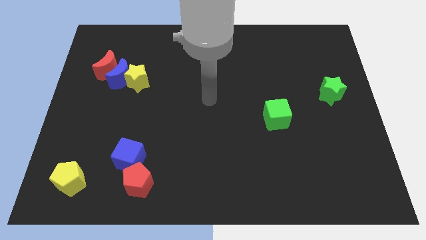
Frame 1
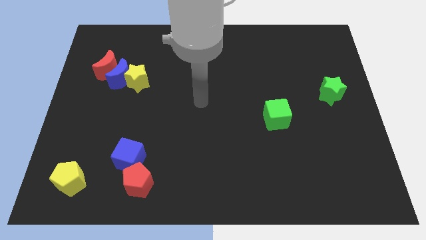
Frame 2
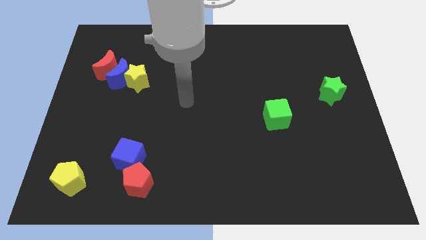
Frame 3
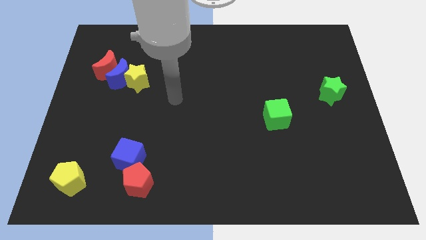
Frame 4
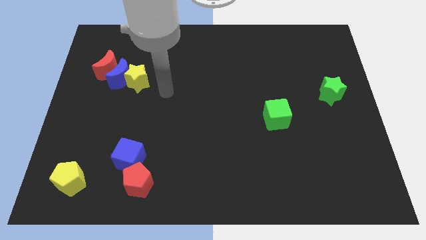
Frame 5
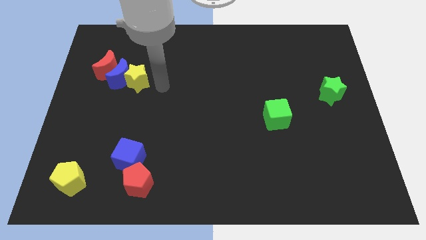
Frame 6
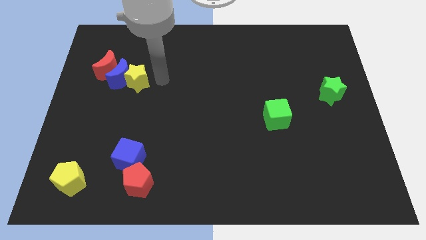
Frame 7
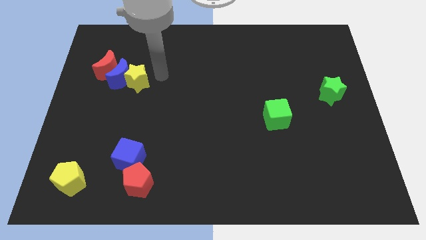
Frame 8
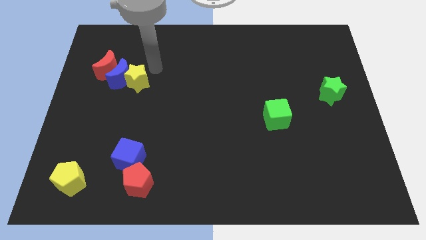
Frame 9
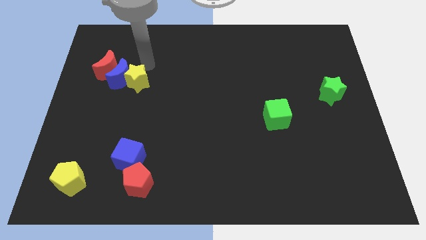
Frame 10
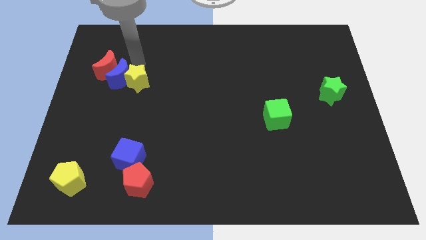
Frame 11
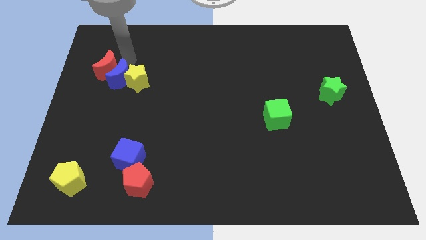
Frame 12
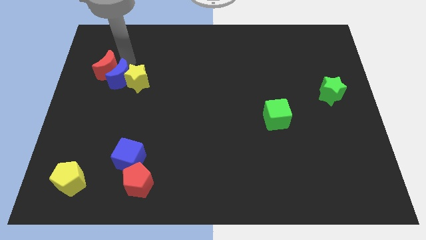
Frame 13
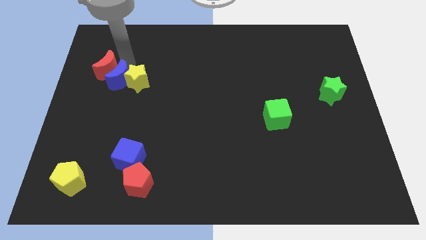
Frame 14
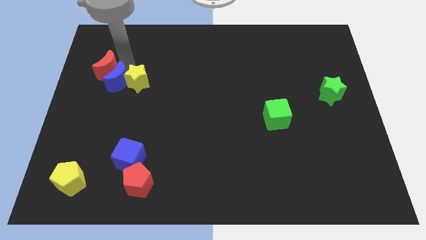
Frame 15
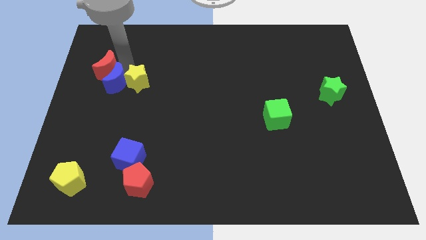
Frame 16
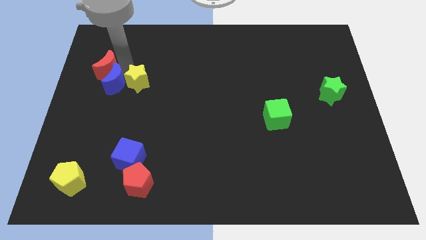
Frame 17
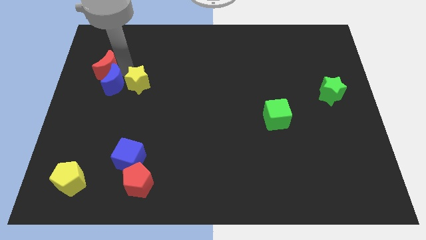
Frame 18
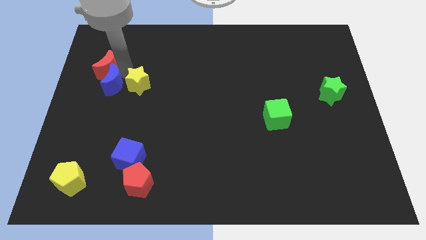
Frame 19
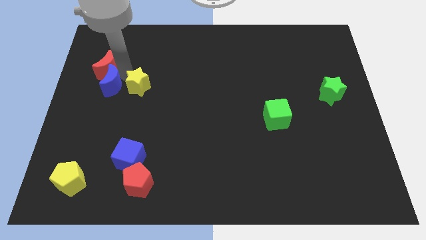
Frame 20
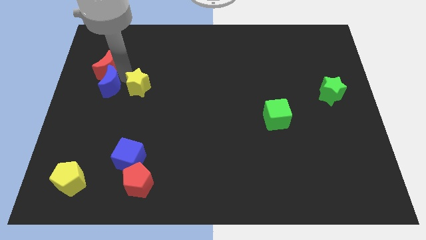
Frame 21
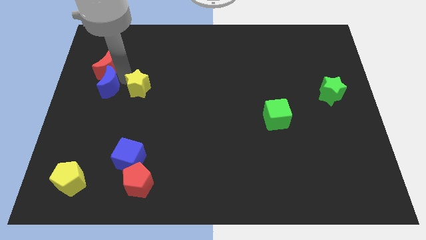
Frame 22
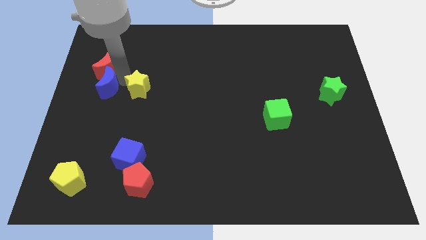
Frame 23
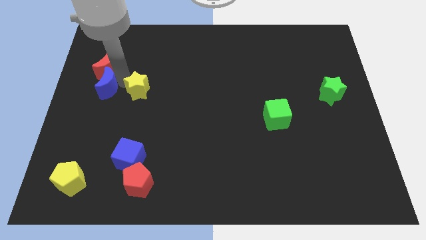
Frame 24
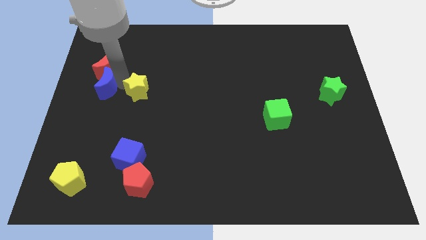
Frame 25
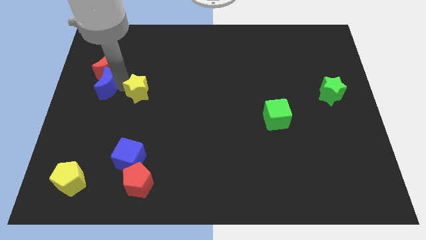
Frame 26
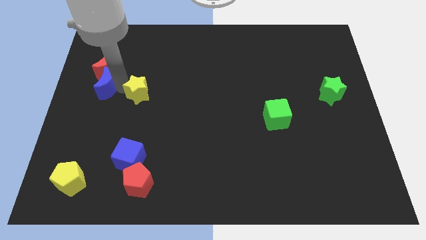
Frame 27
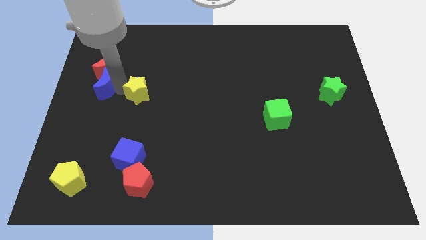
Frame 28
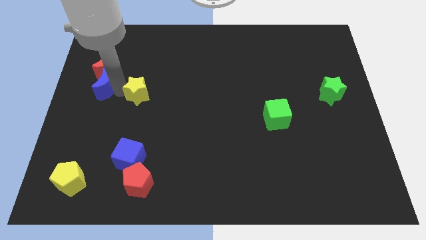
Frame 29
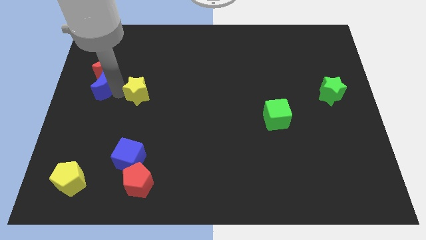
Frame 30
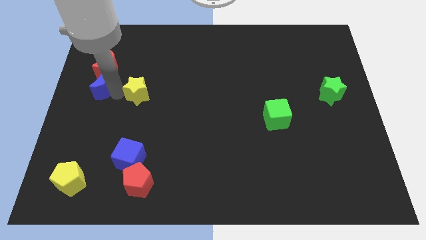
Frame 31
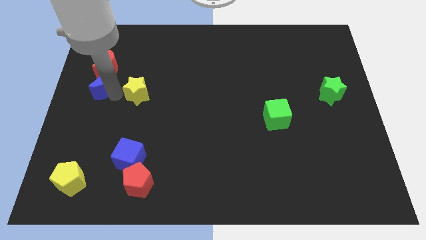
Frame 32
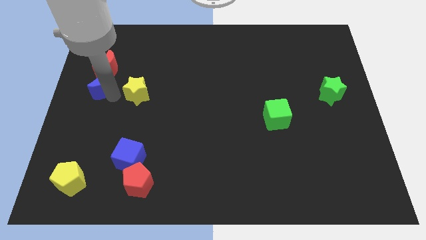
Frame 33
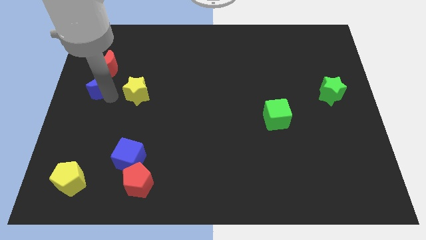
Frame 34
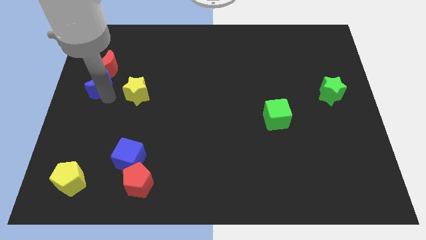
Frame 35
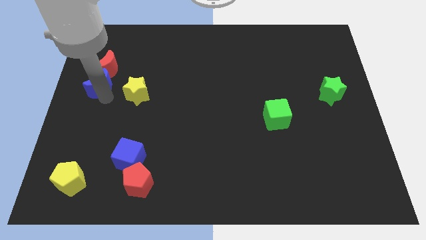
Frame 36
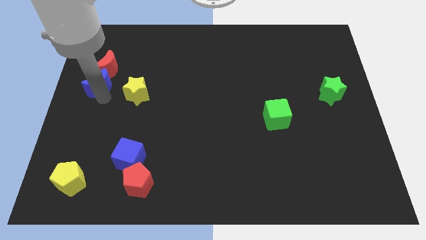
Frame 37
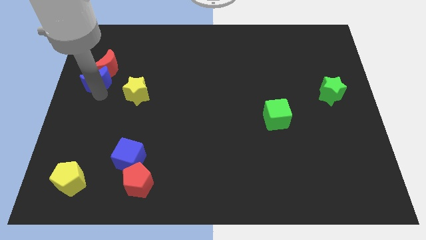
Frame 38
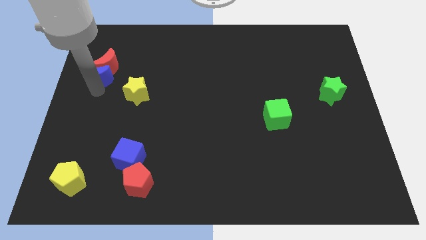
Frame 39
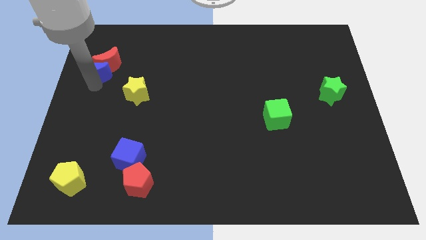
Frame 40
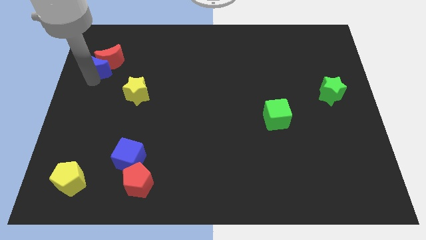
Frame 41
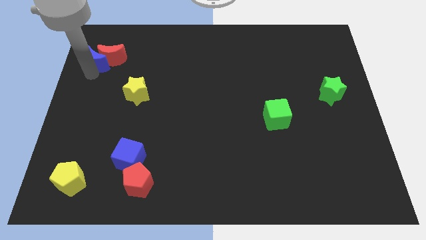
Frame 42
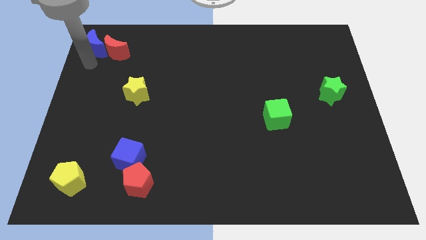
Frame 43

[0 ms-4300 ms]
pull the blue moon apart from the yellow star and red moon

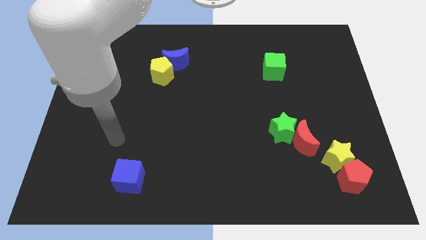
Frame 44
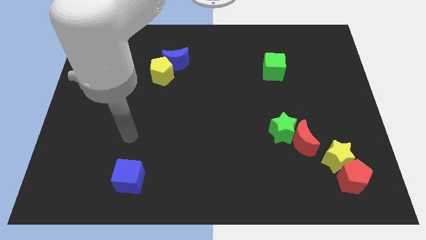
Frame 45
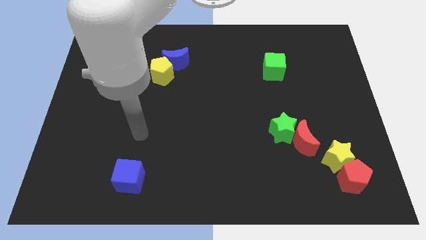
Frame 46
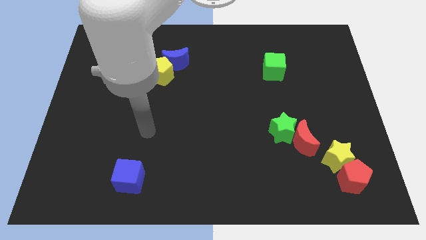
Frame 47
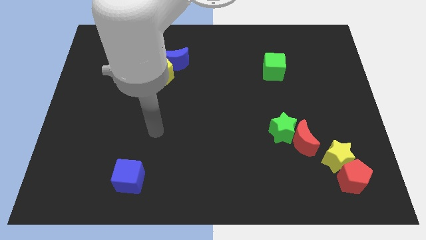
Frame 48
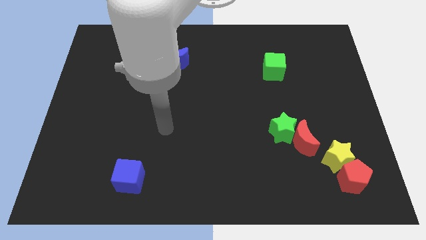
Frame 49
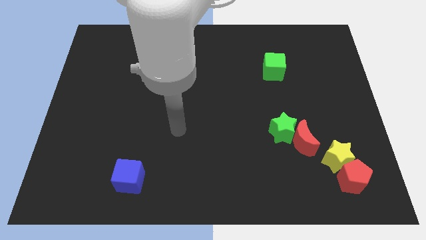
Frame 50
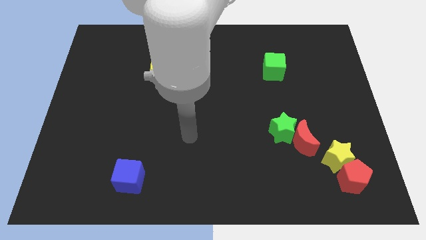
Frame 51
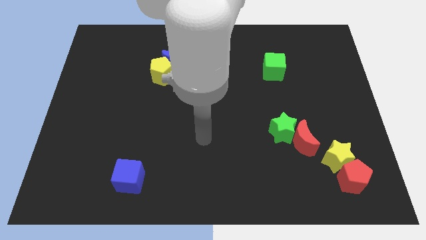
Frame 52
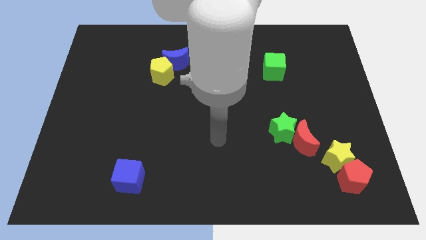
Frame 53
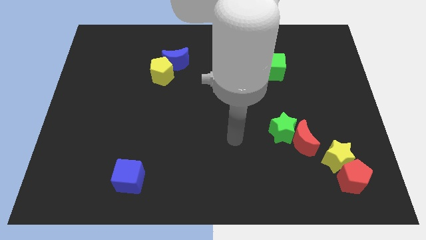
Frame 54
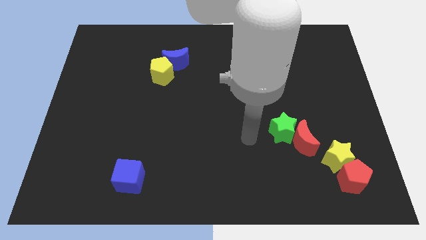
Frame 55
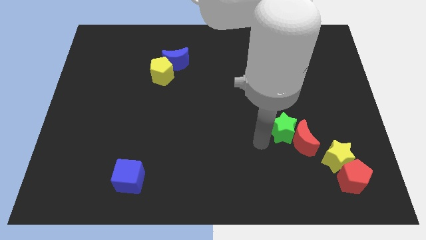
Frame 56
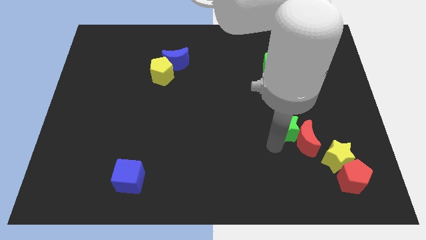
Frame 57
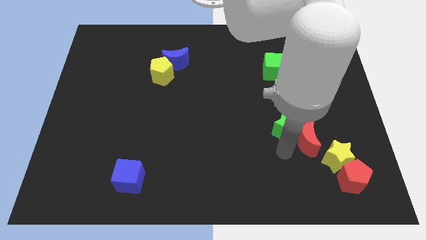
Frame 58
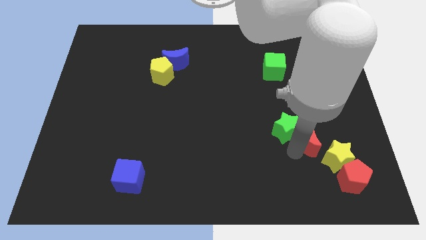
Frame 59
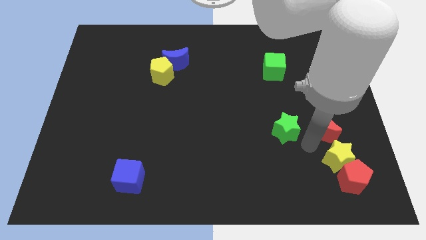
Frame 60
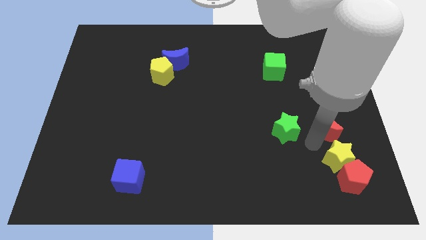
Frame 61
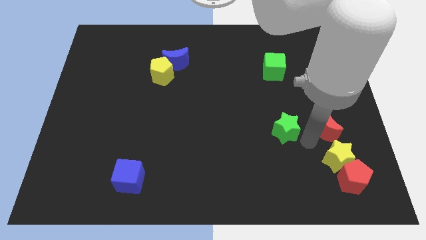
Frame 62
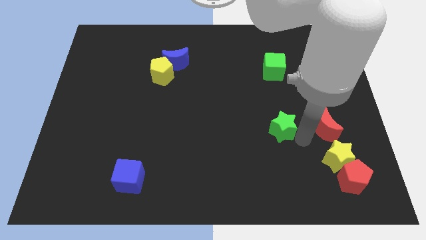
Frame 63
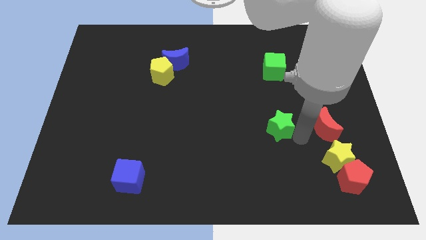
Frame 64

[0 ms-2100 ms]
pull the green star apart from the red moon

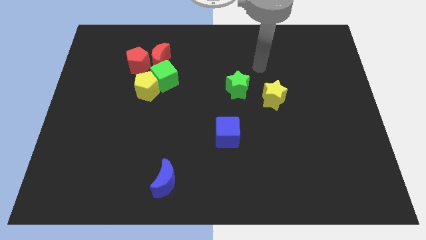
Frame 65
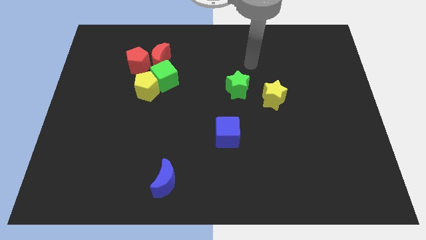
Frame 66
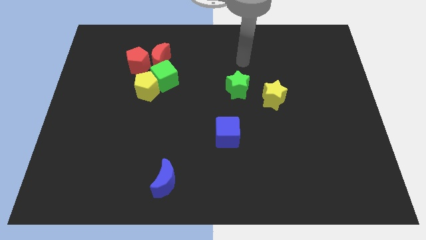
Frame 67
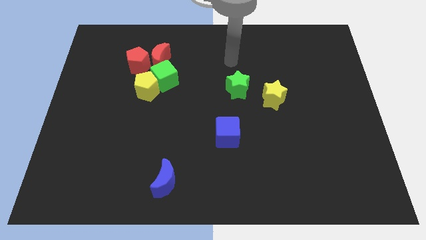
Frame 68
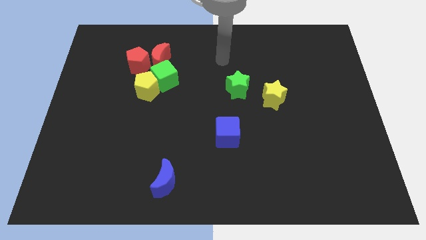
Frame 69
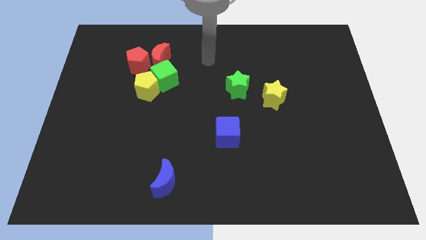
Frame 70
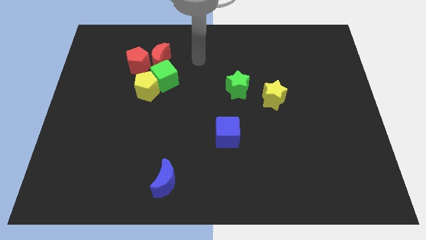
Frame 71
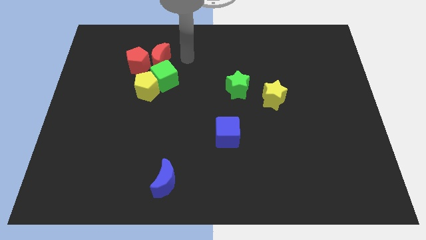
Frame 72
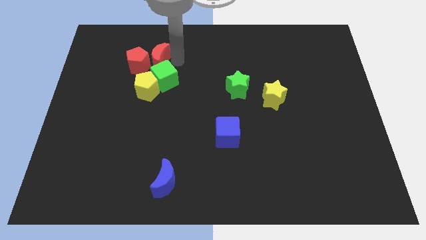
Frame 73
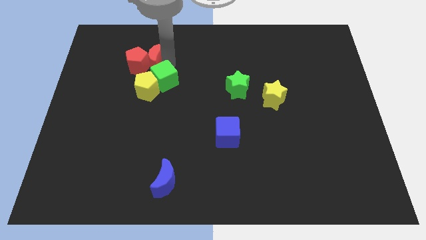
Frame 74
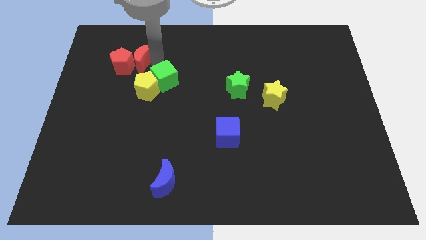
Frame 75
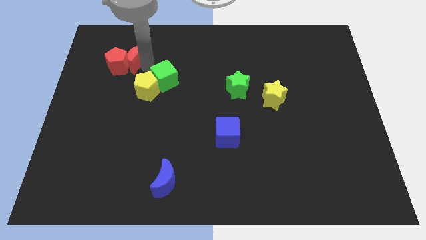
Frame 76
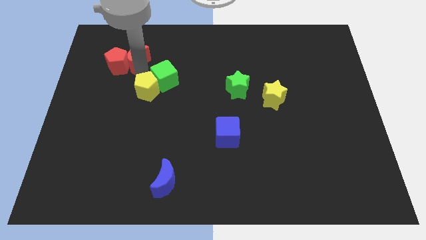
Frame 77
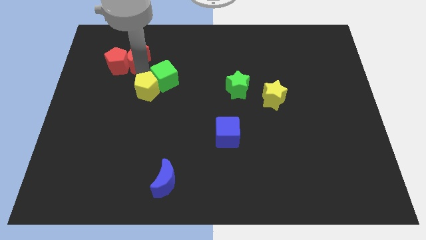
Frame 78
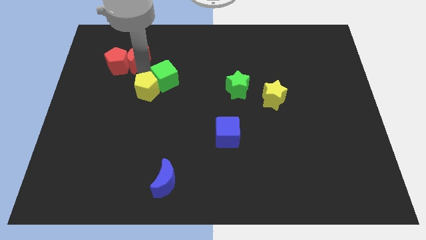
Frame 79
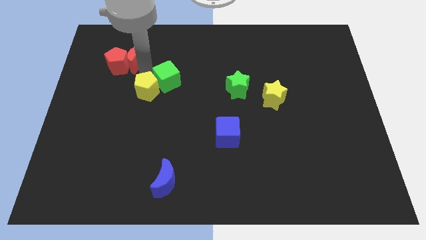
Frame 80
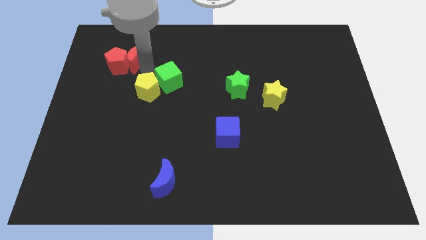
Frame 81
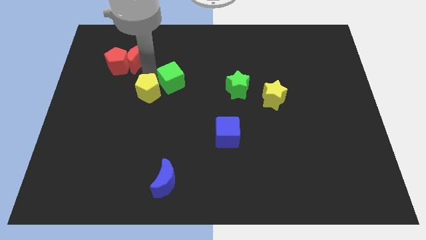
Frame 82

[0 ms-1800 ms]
pull the green cube apart from the yellow pentagon, red moon, and red pentagon

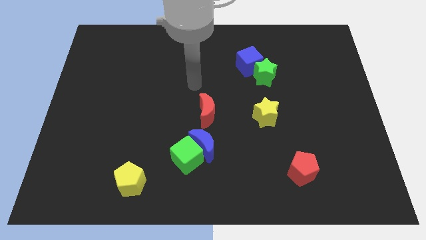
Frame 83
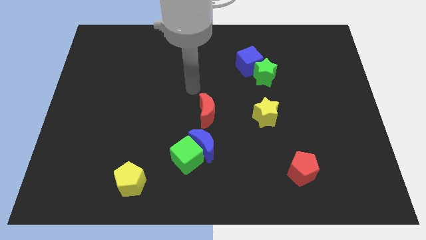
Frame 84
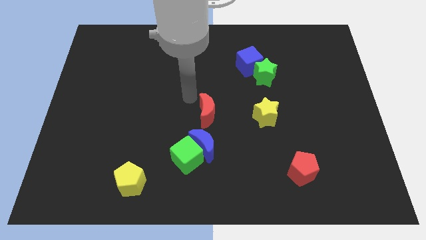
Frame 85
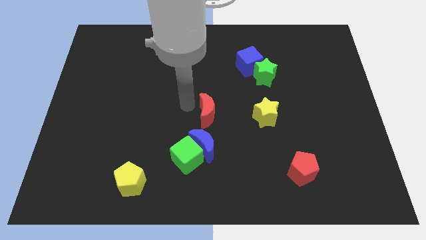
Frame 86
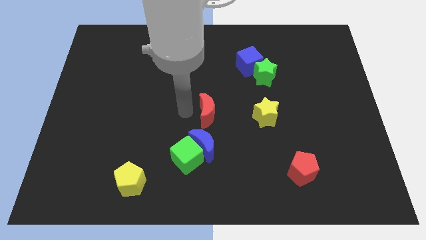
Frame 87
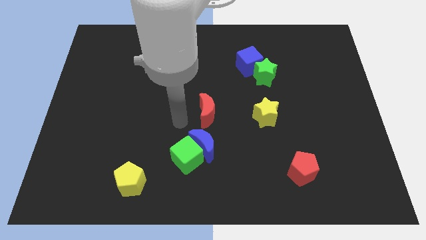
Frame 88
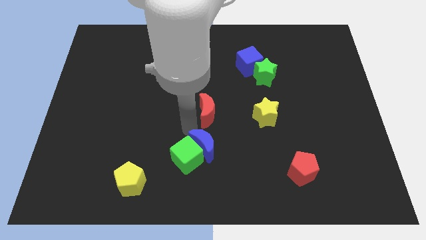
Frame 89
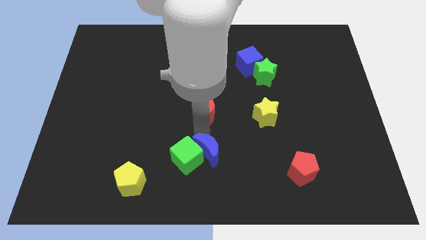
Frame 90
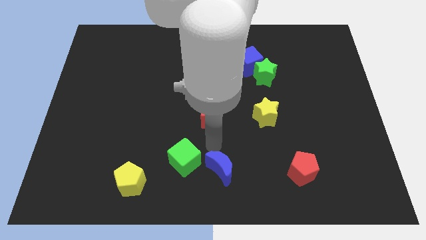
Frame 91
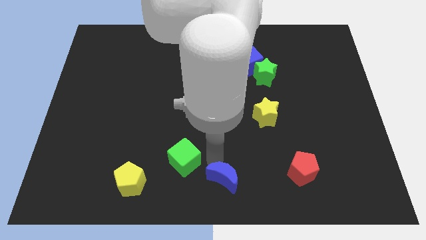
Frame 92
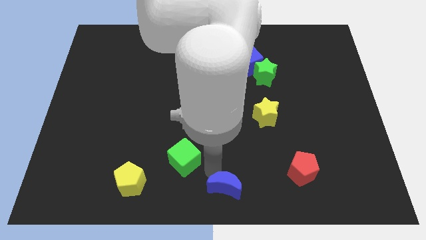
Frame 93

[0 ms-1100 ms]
pull the green cube apart from the blue moon
